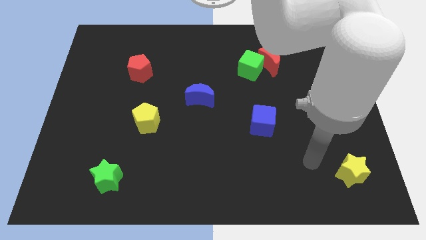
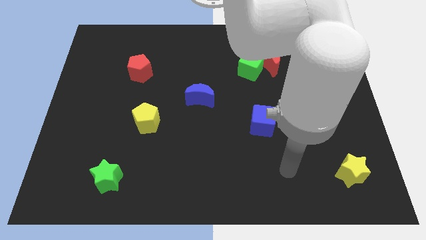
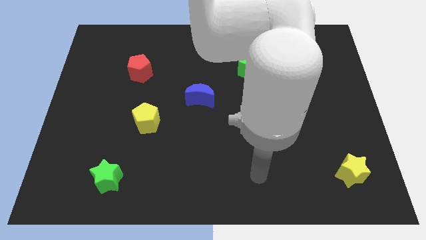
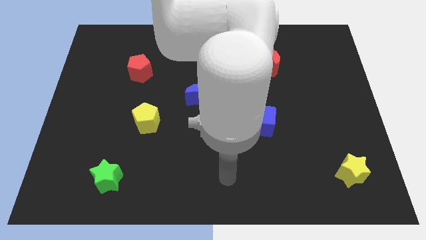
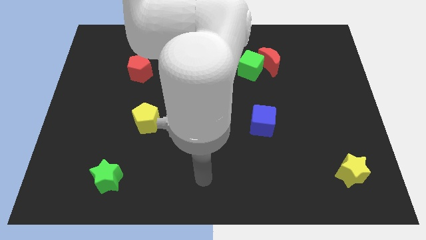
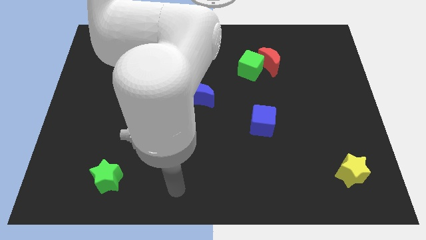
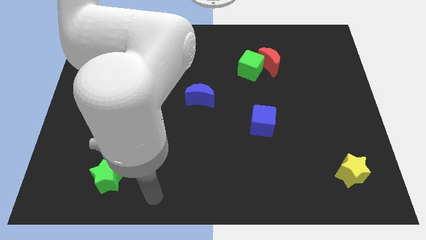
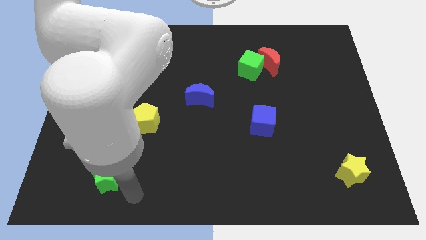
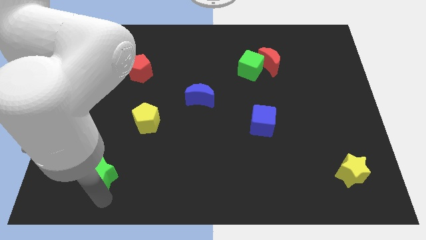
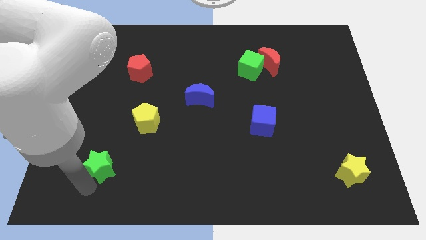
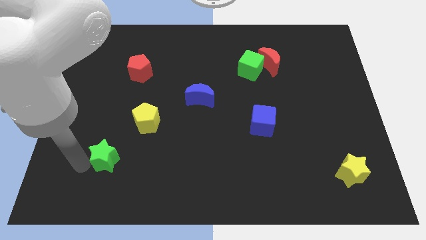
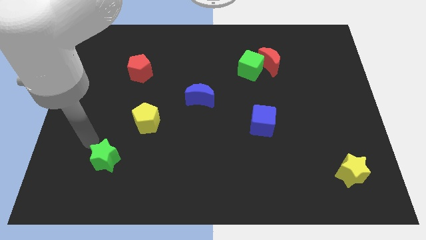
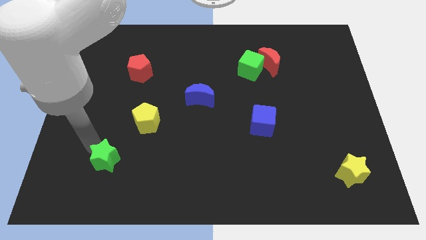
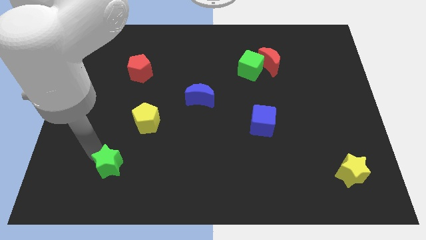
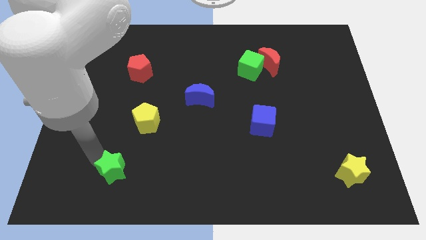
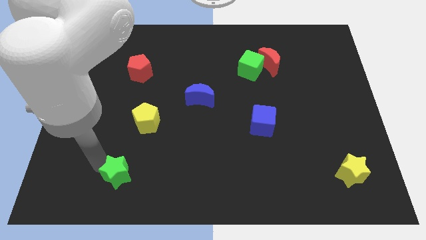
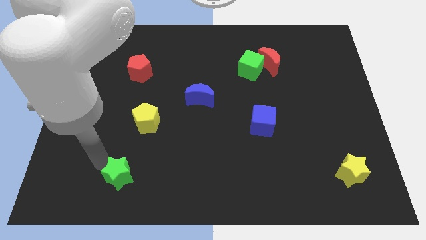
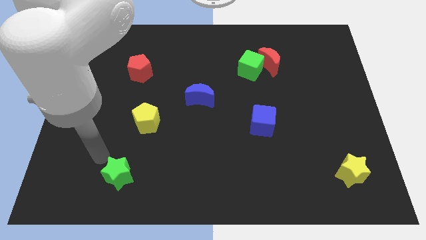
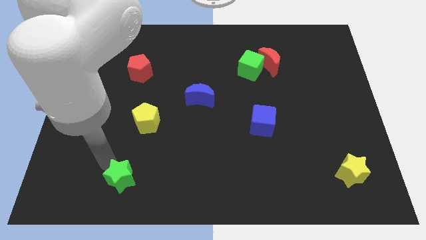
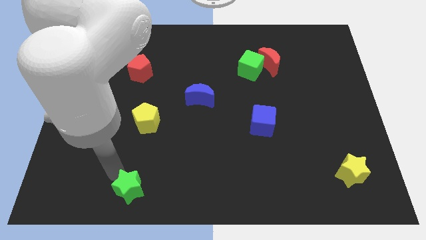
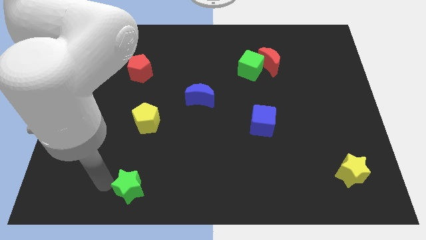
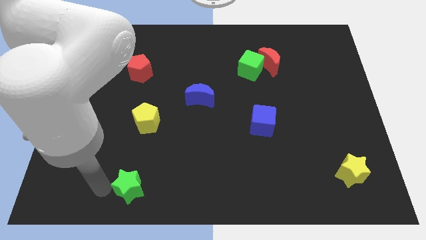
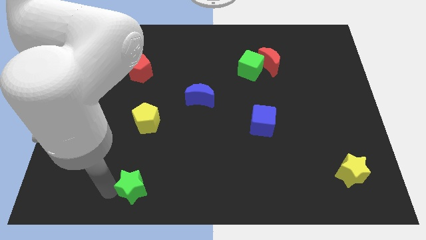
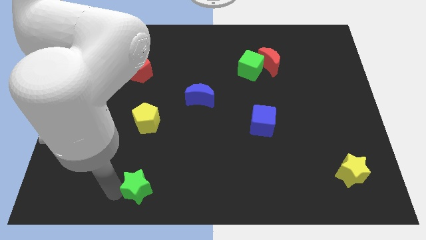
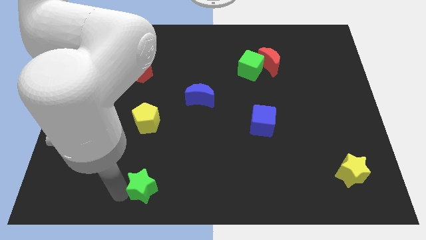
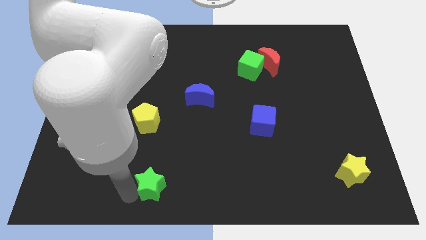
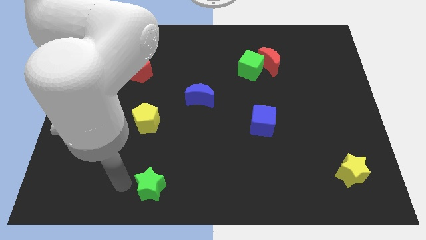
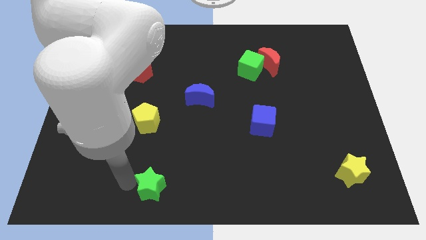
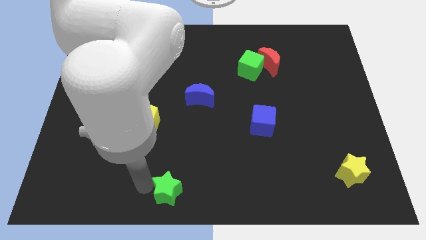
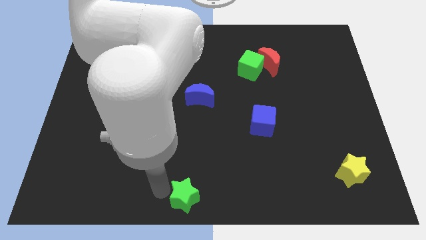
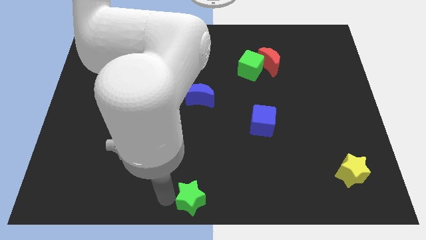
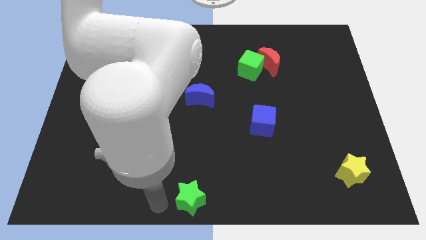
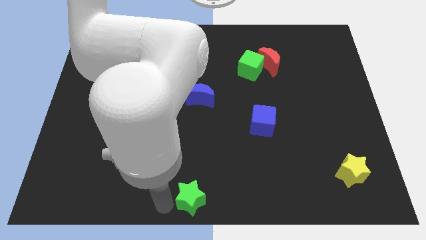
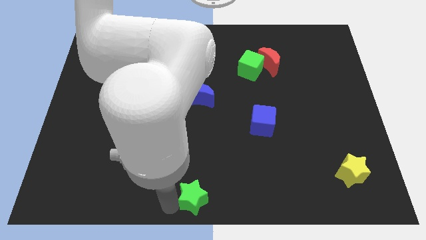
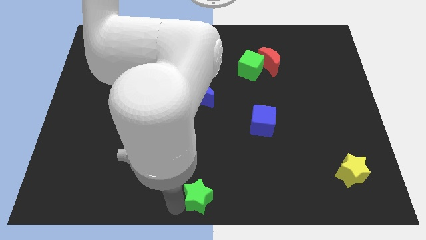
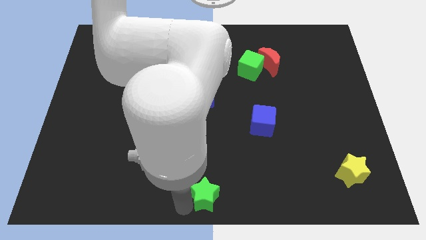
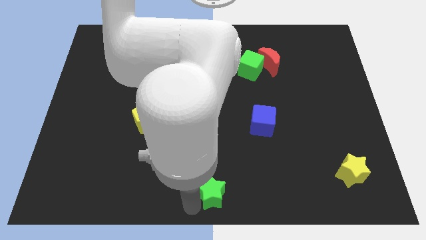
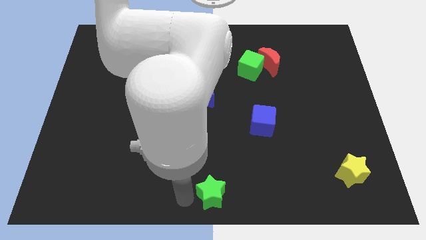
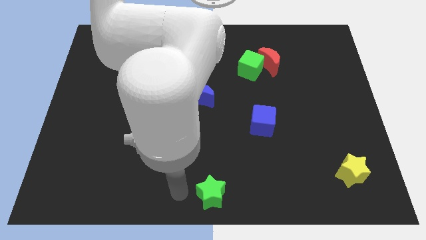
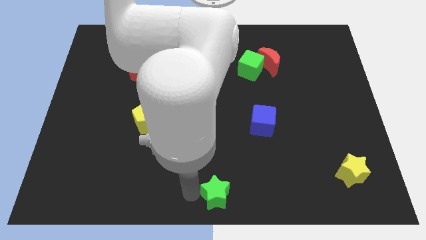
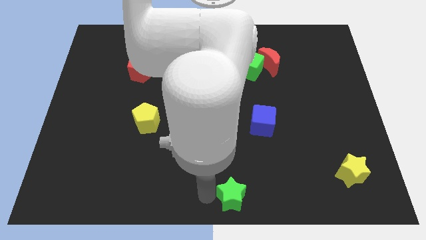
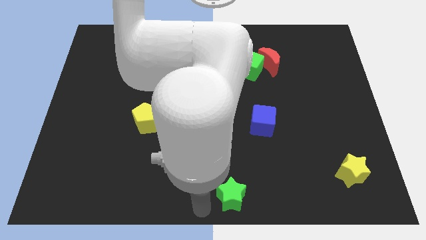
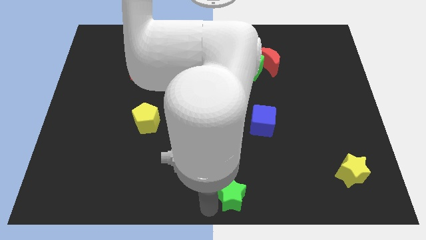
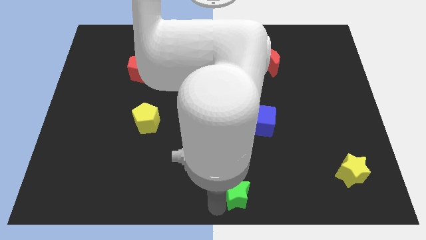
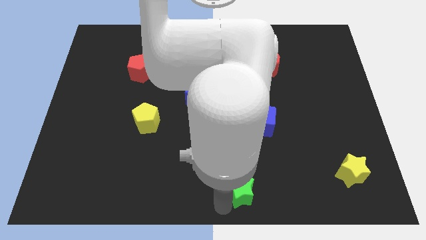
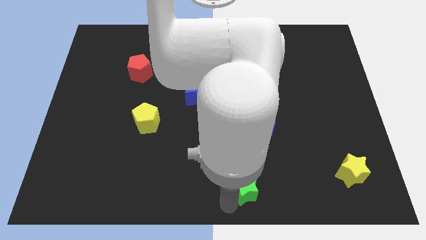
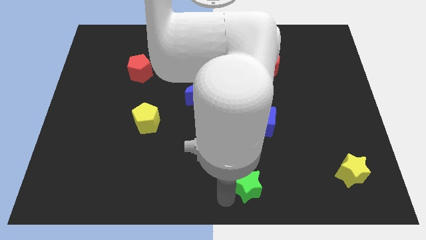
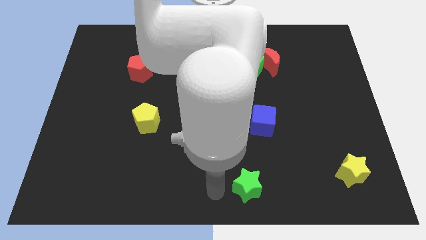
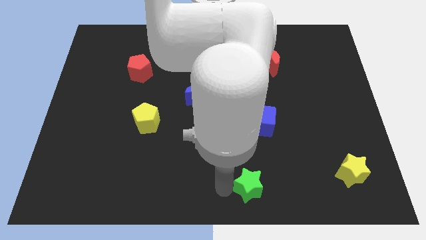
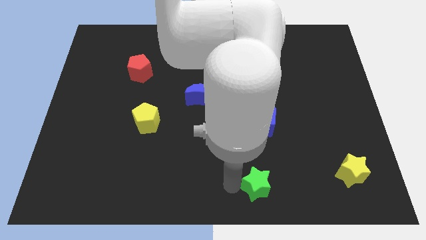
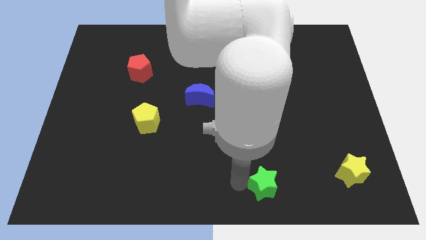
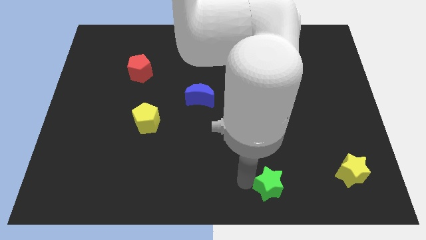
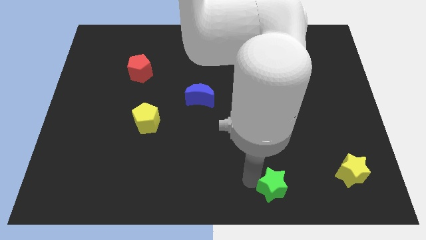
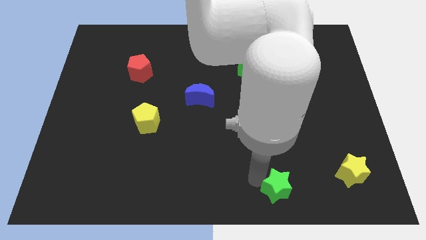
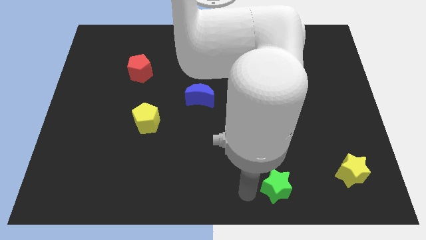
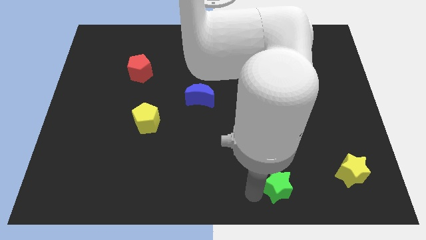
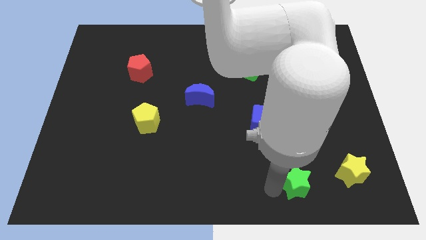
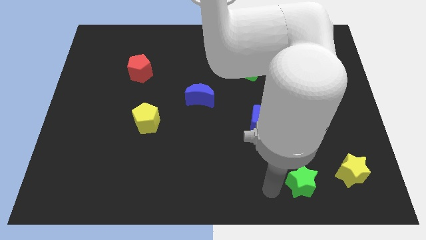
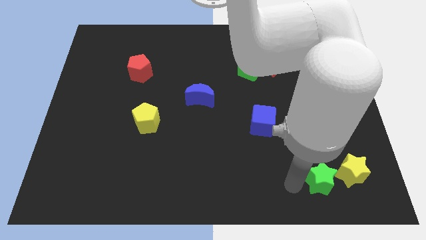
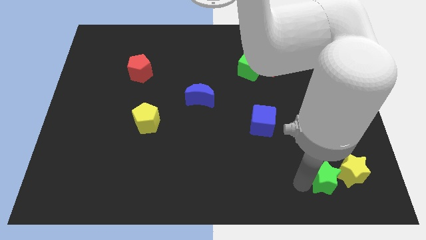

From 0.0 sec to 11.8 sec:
move the green star close to the yellow star

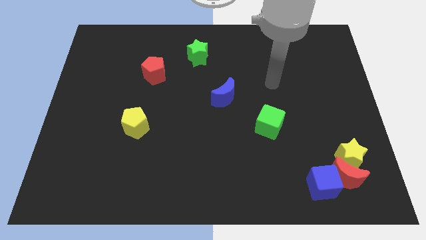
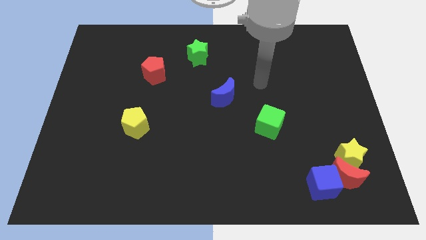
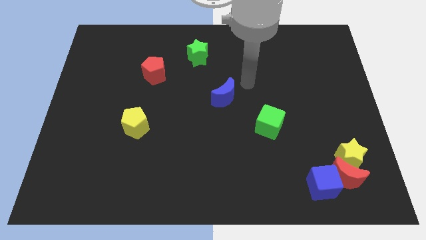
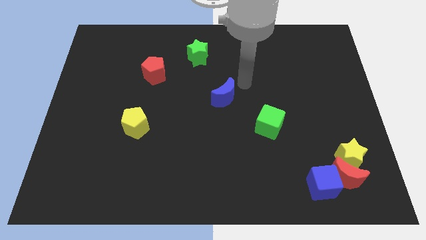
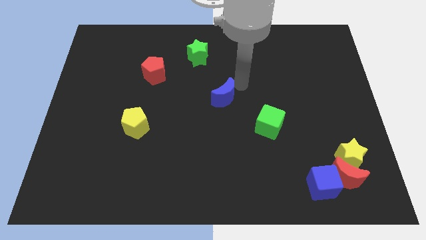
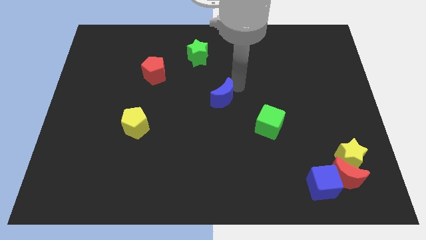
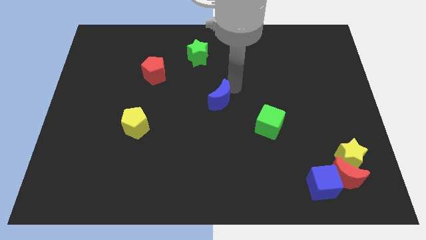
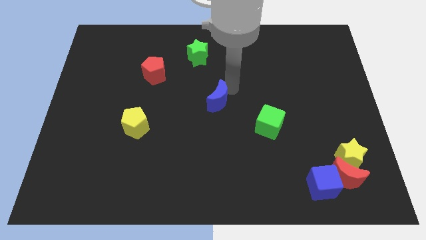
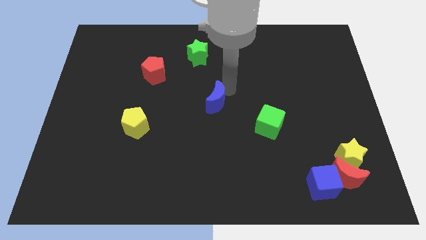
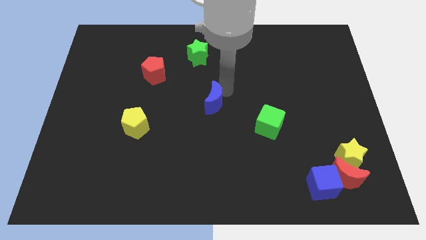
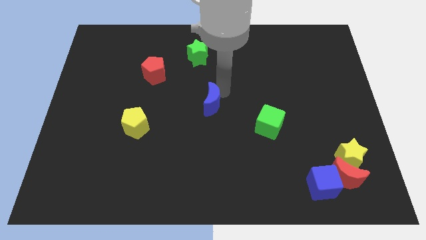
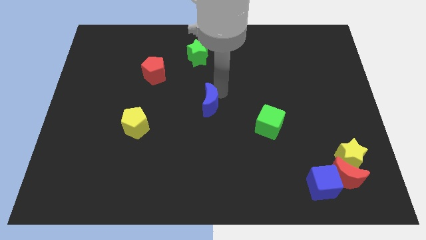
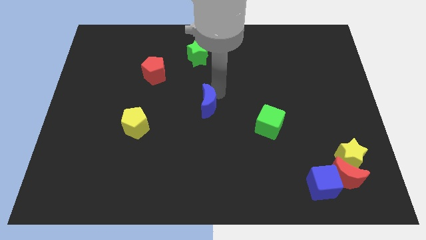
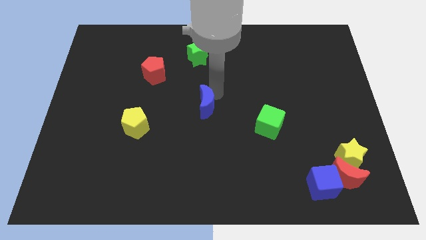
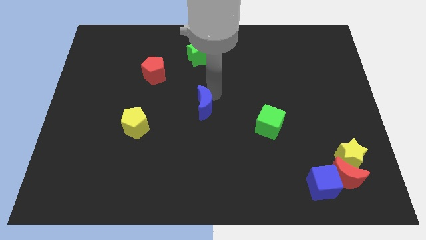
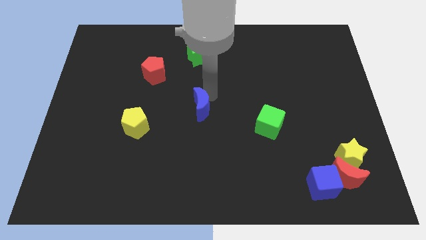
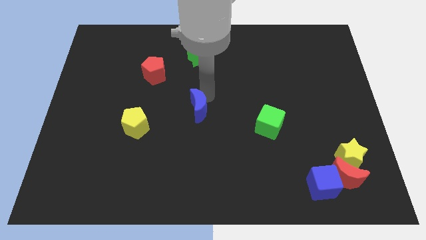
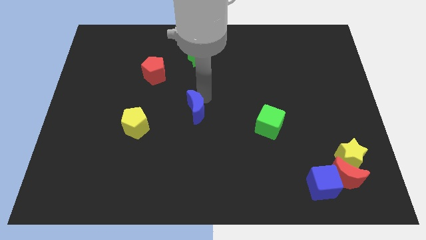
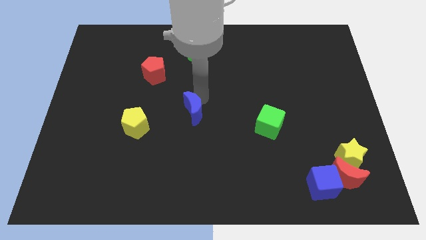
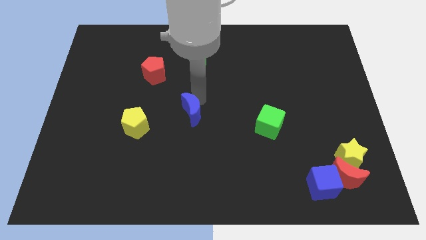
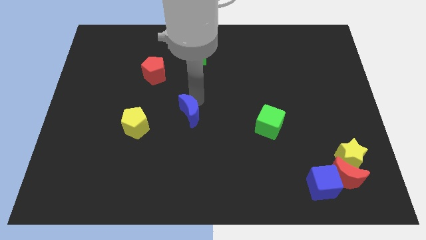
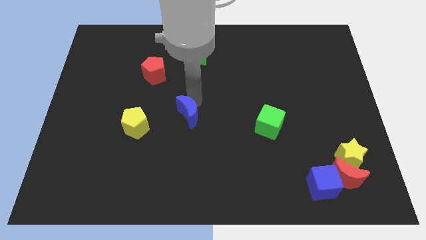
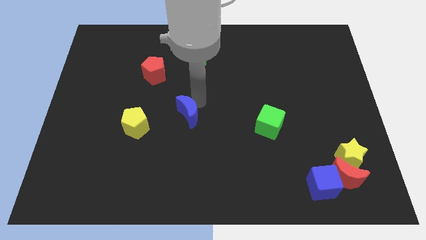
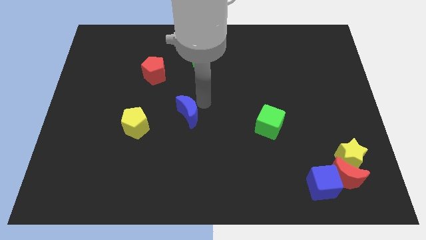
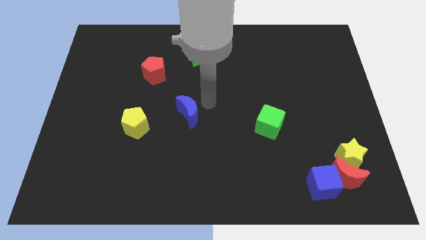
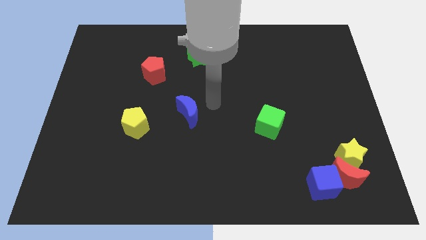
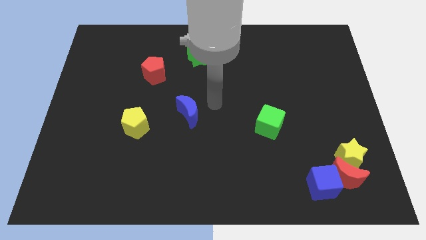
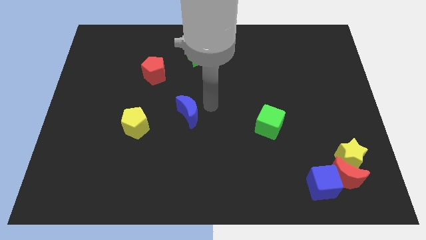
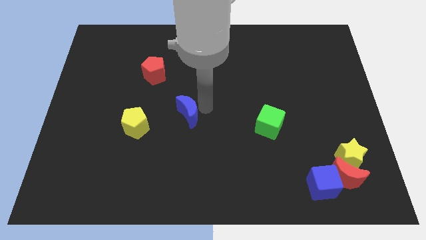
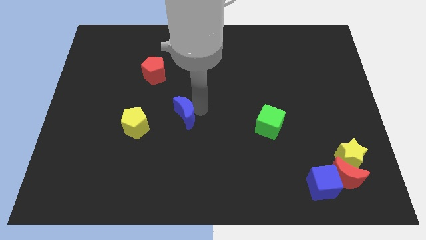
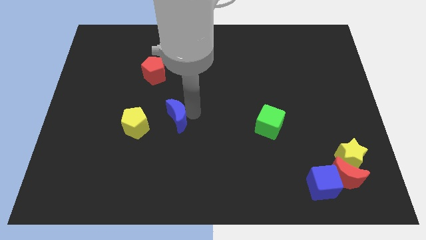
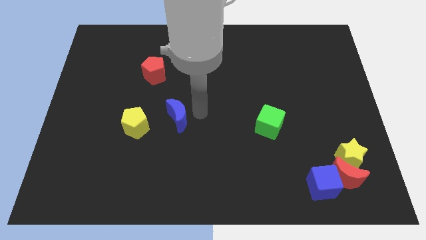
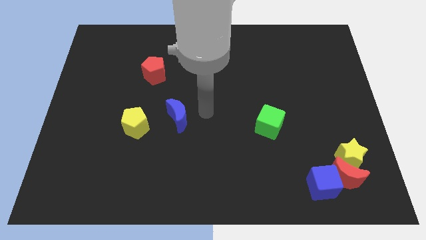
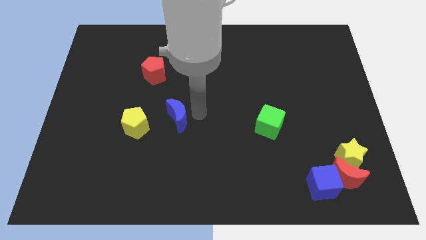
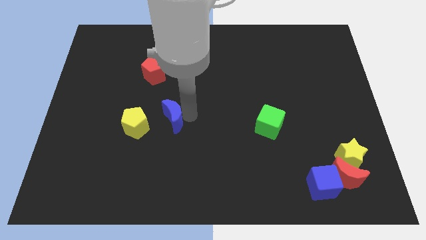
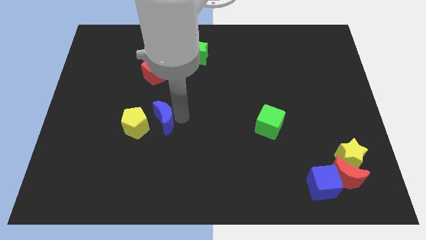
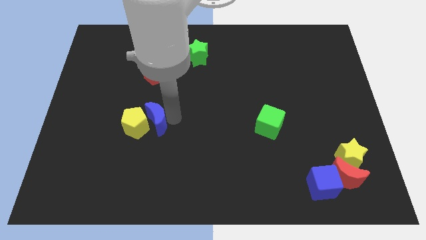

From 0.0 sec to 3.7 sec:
move the blue moon towards the yellow pentagon
